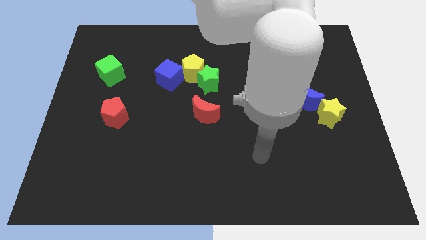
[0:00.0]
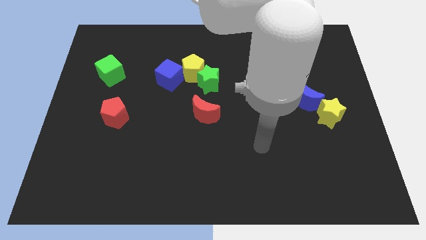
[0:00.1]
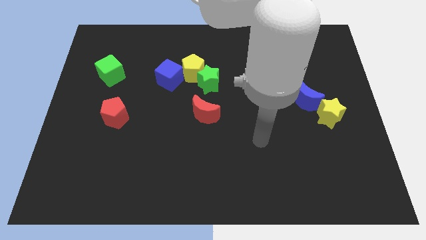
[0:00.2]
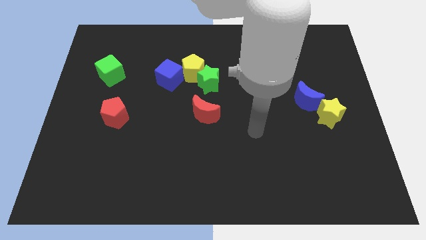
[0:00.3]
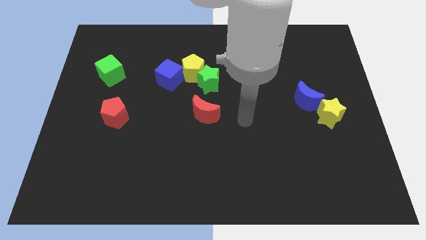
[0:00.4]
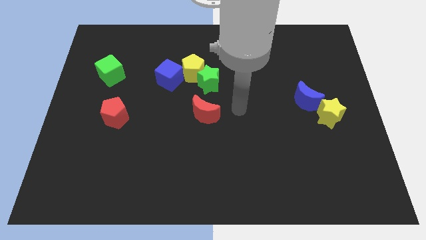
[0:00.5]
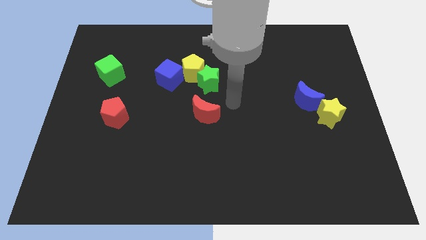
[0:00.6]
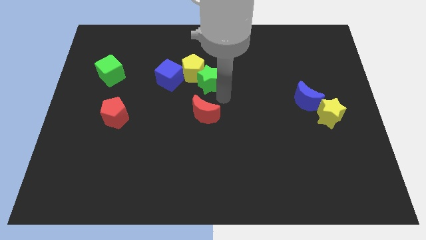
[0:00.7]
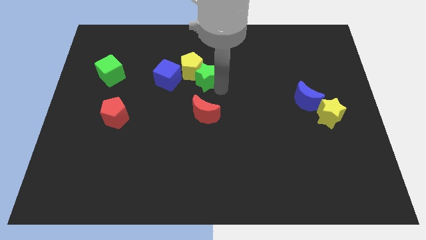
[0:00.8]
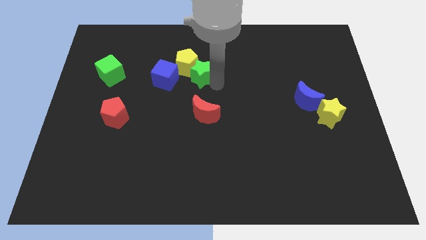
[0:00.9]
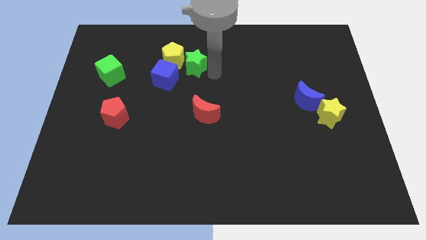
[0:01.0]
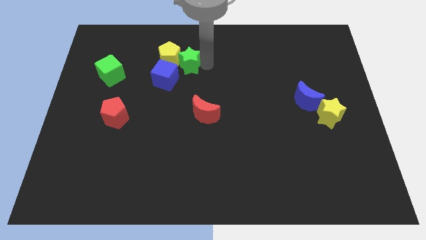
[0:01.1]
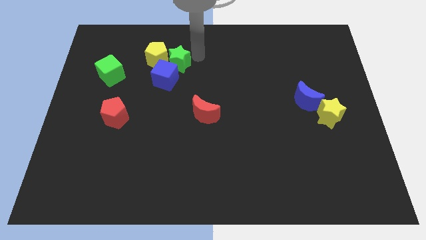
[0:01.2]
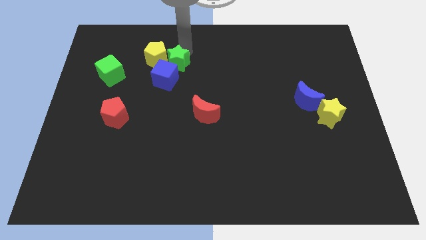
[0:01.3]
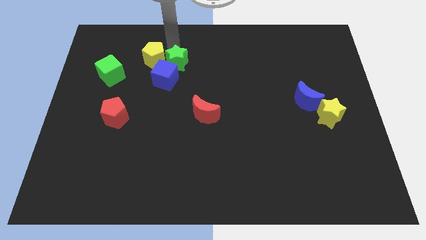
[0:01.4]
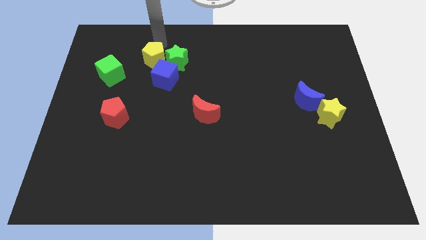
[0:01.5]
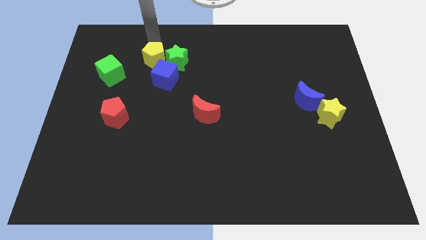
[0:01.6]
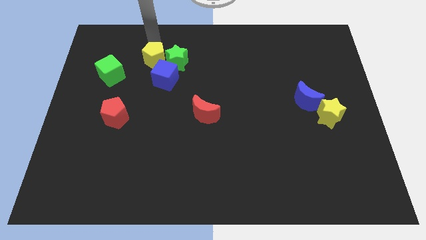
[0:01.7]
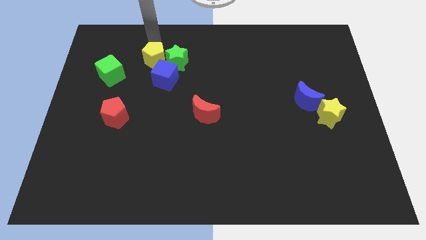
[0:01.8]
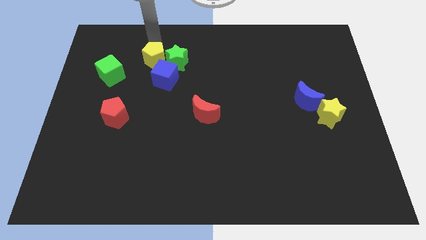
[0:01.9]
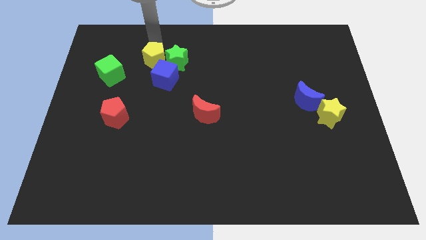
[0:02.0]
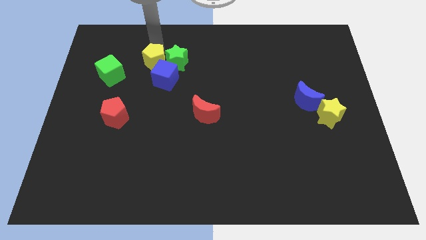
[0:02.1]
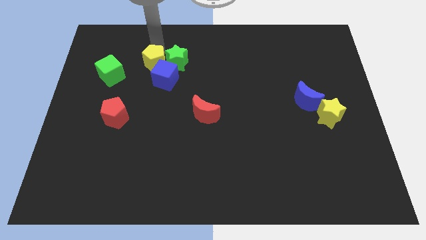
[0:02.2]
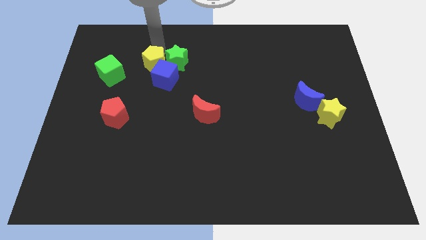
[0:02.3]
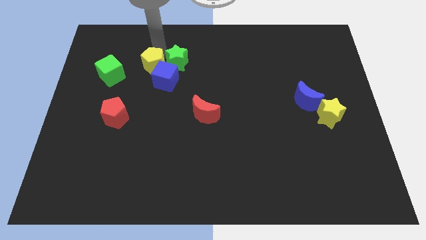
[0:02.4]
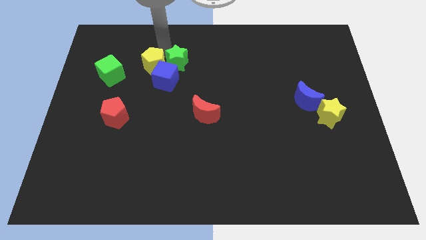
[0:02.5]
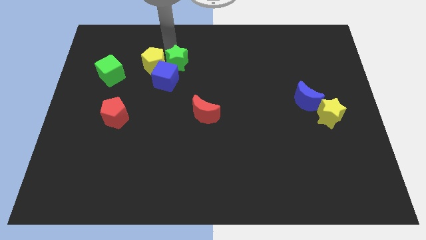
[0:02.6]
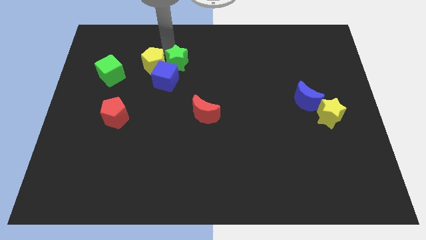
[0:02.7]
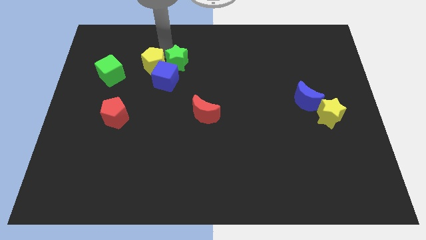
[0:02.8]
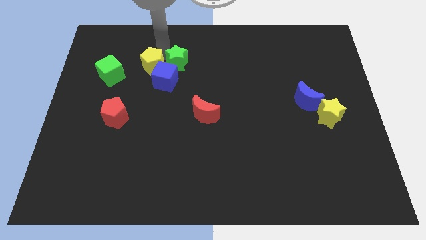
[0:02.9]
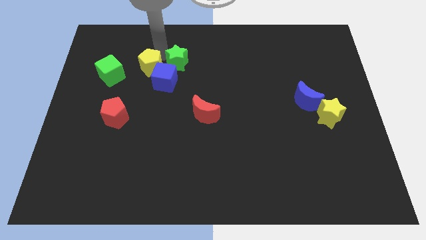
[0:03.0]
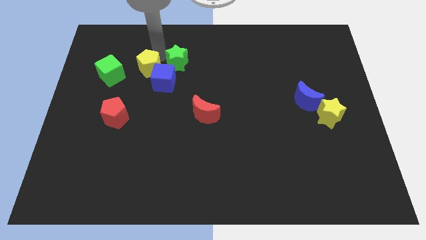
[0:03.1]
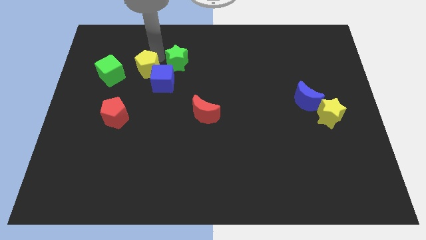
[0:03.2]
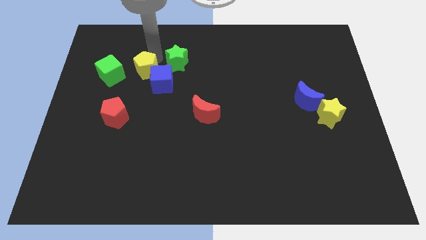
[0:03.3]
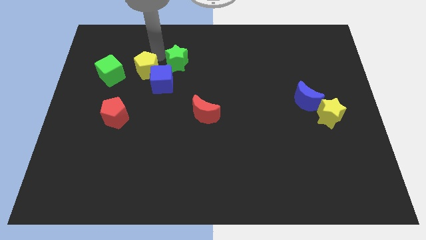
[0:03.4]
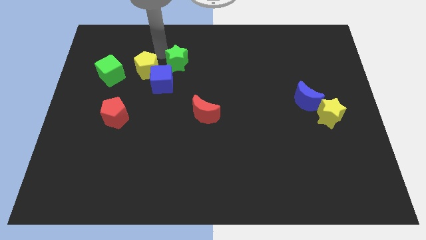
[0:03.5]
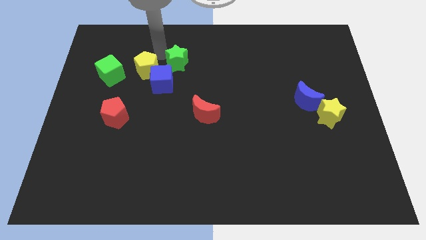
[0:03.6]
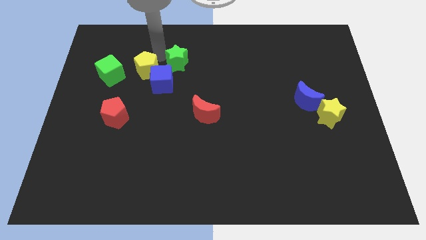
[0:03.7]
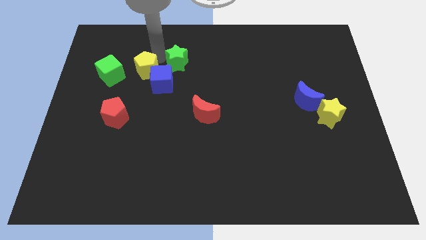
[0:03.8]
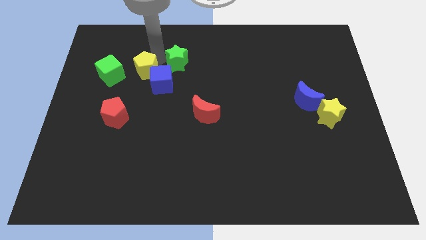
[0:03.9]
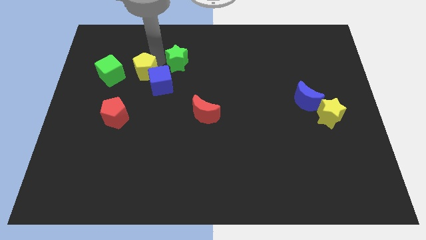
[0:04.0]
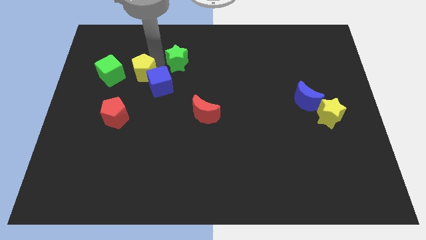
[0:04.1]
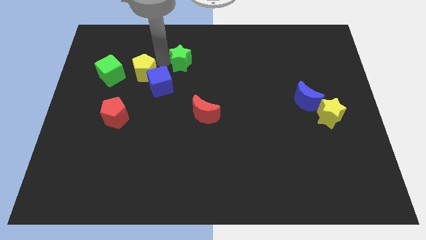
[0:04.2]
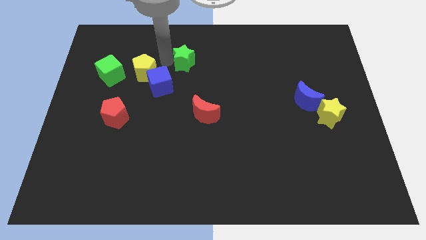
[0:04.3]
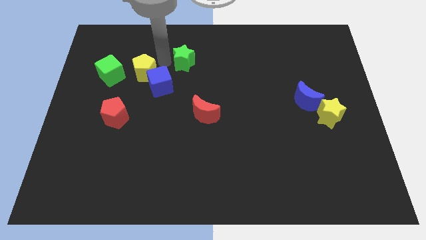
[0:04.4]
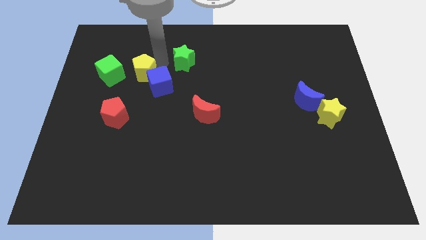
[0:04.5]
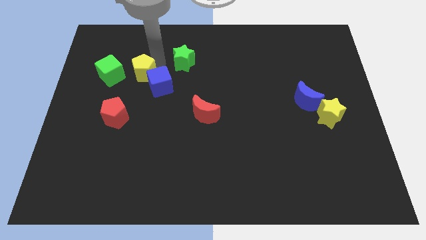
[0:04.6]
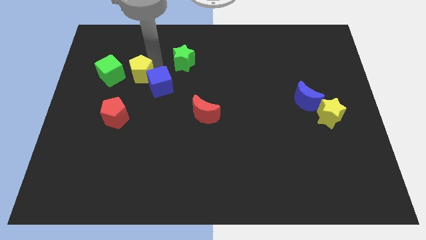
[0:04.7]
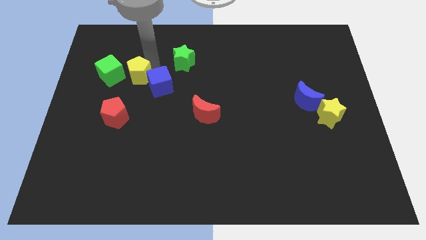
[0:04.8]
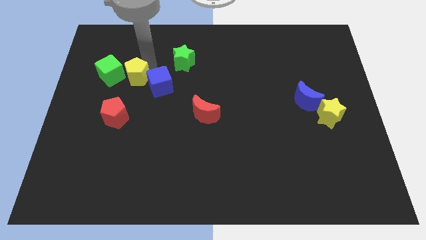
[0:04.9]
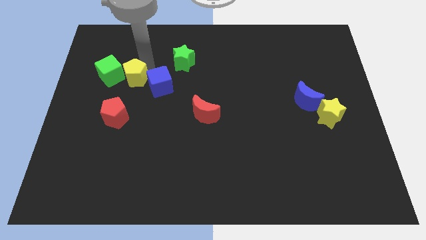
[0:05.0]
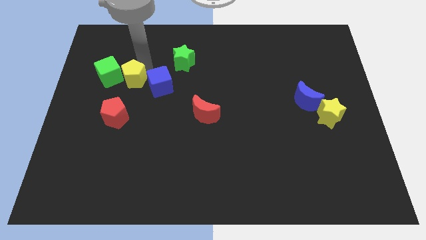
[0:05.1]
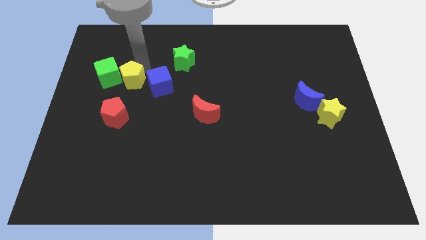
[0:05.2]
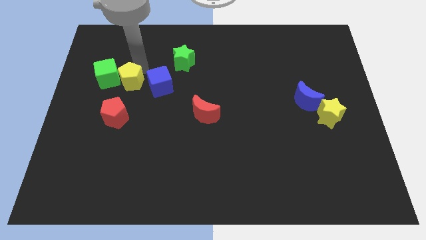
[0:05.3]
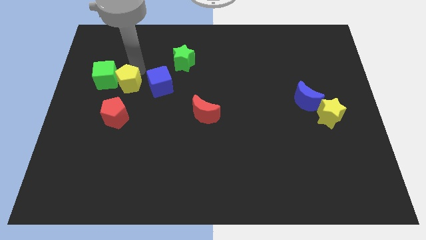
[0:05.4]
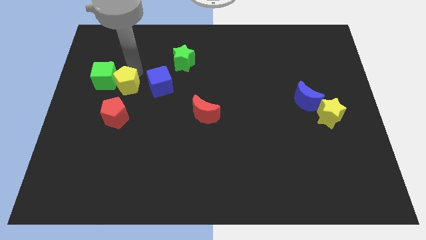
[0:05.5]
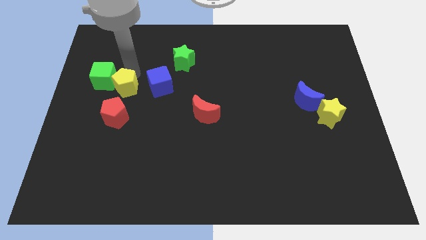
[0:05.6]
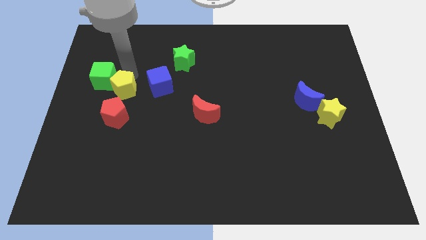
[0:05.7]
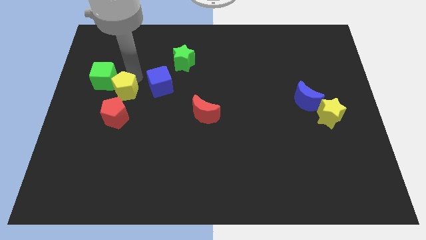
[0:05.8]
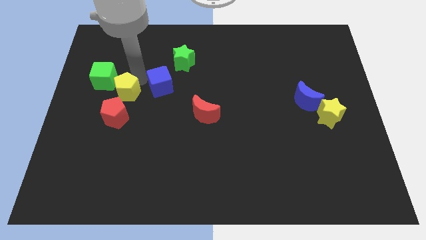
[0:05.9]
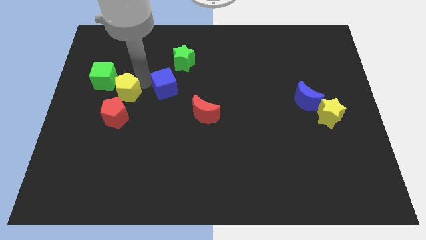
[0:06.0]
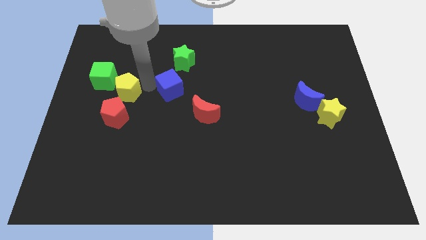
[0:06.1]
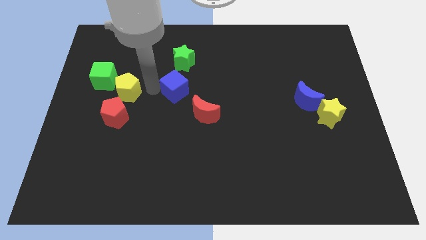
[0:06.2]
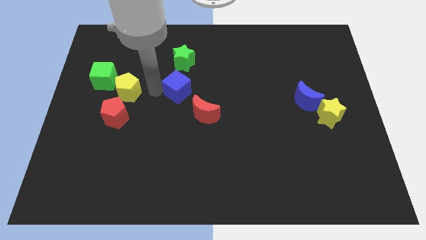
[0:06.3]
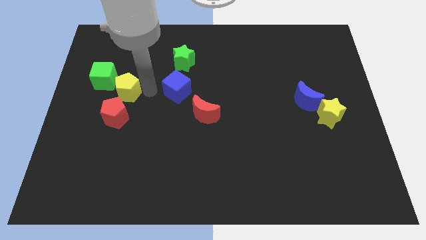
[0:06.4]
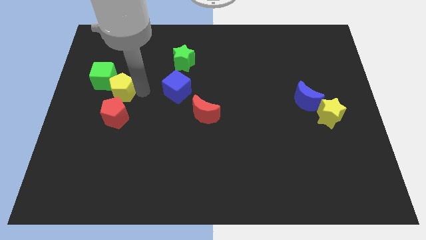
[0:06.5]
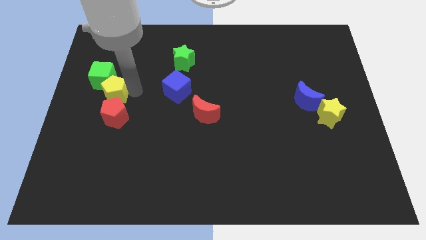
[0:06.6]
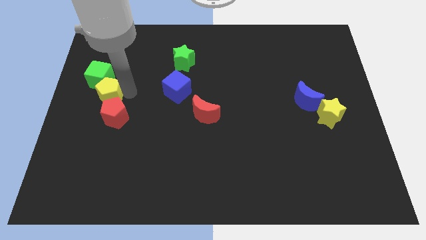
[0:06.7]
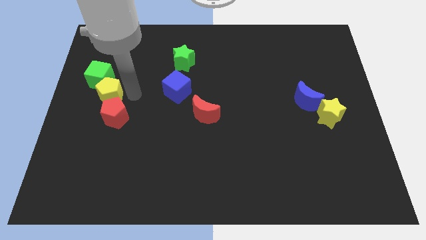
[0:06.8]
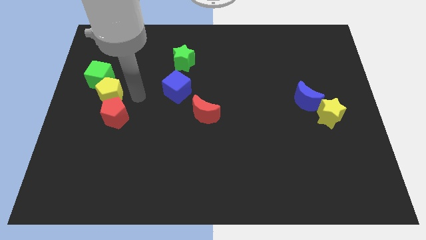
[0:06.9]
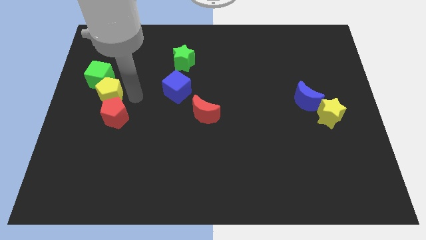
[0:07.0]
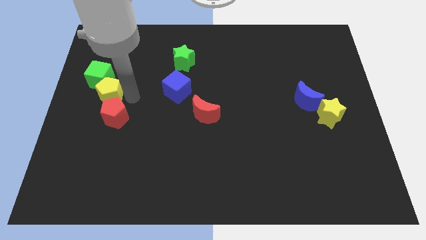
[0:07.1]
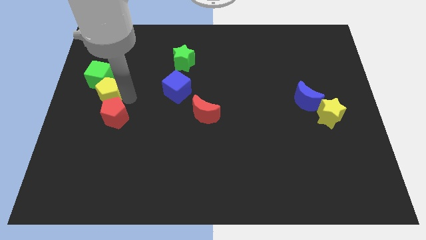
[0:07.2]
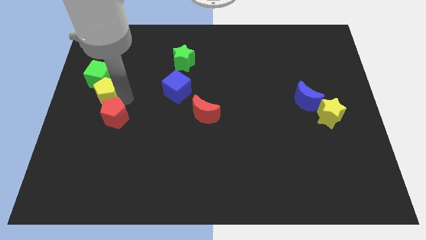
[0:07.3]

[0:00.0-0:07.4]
slide the yellow pentagon to the center left
